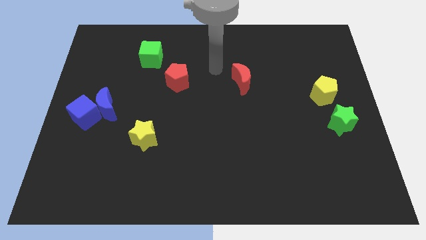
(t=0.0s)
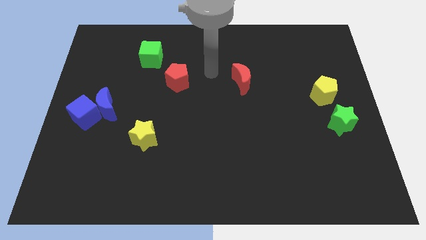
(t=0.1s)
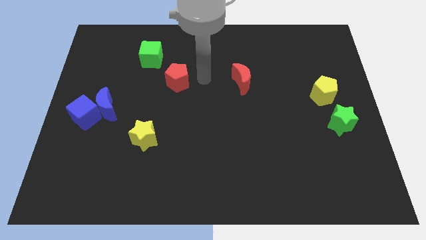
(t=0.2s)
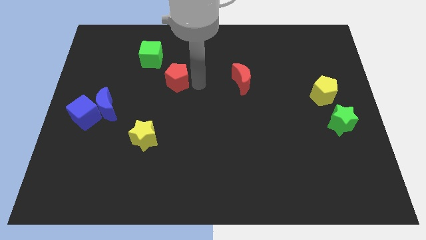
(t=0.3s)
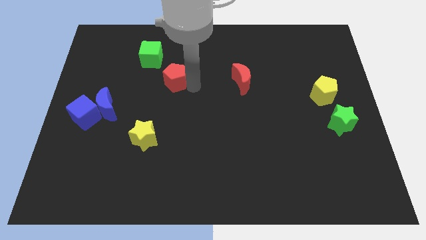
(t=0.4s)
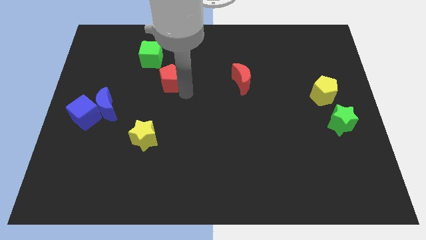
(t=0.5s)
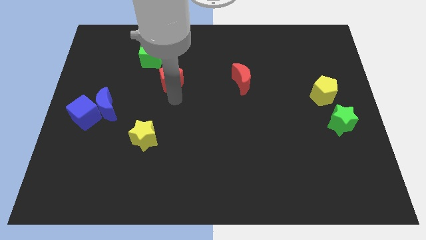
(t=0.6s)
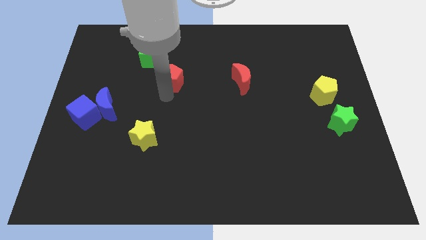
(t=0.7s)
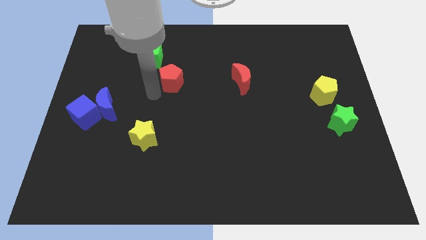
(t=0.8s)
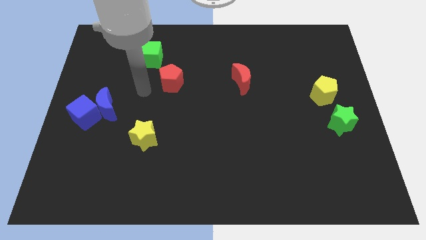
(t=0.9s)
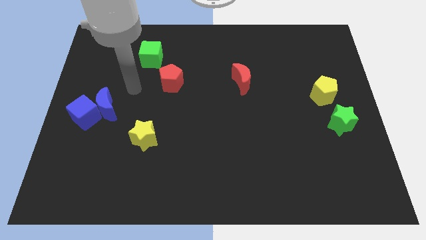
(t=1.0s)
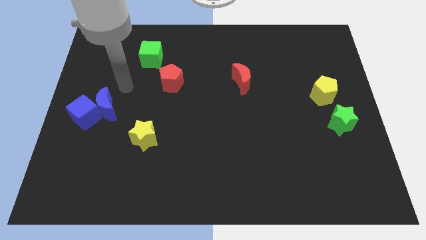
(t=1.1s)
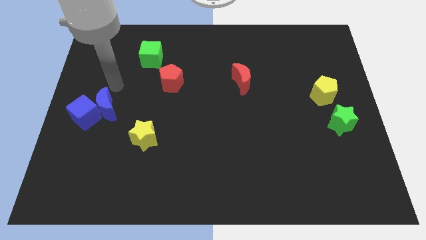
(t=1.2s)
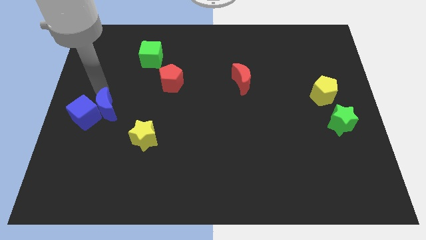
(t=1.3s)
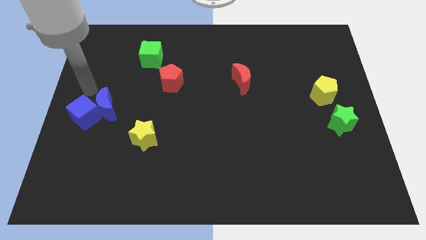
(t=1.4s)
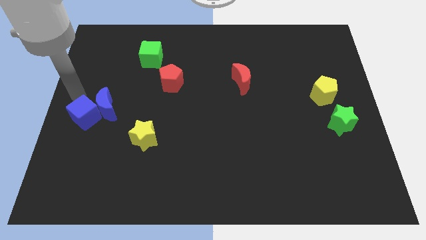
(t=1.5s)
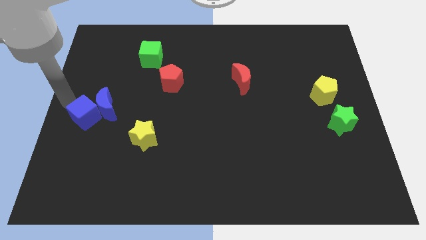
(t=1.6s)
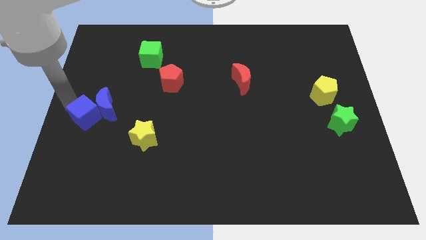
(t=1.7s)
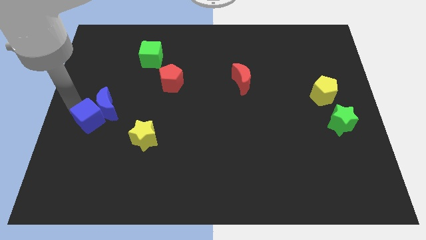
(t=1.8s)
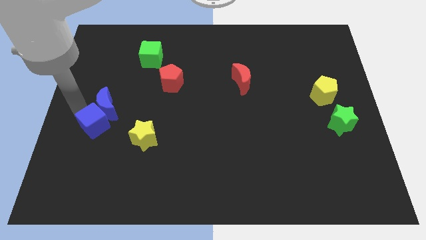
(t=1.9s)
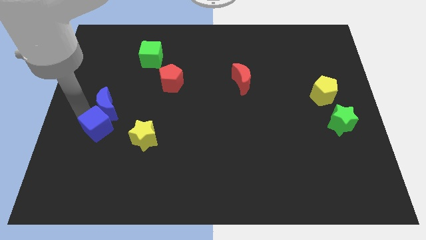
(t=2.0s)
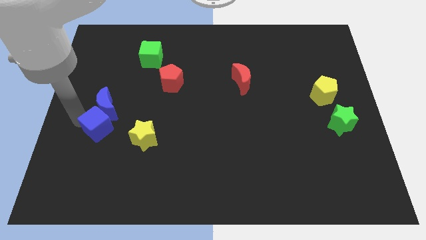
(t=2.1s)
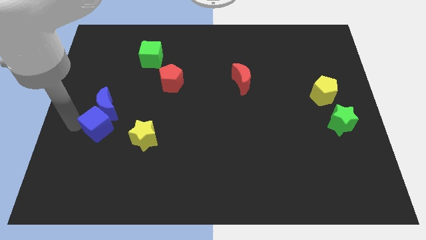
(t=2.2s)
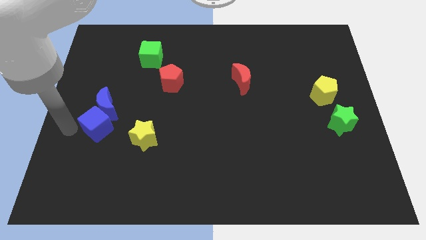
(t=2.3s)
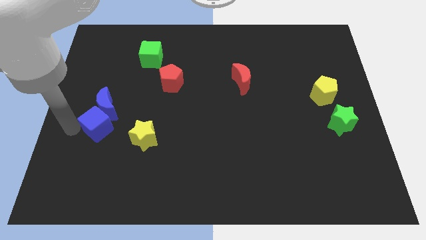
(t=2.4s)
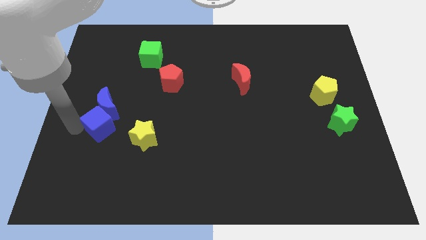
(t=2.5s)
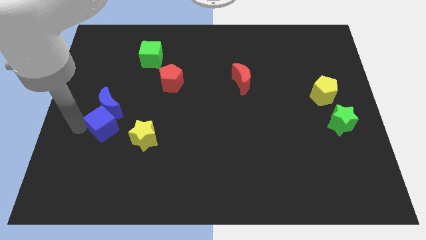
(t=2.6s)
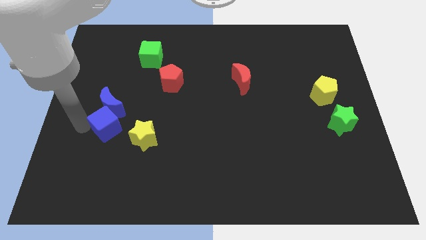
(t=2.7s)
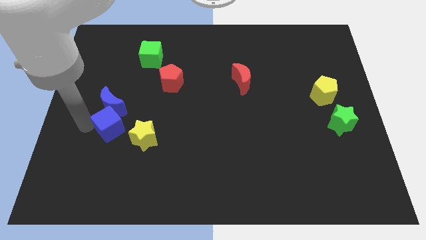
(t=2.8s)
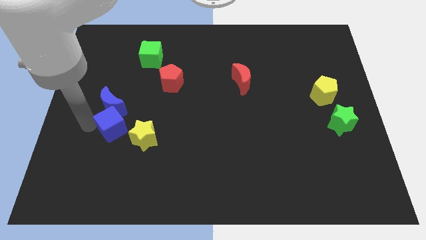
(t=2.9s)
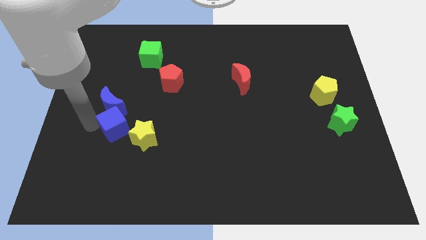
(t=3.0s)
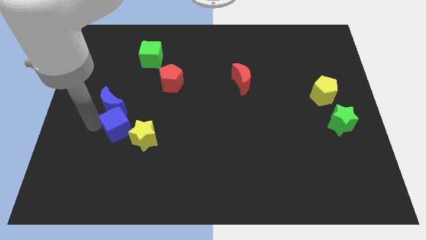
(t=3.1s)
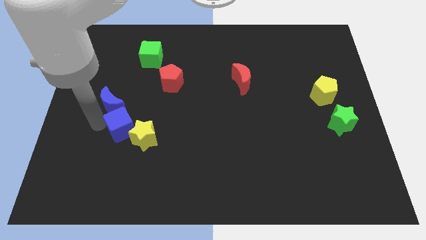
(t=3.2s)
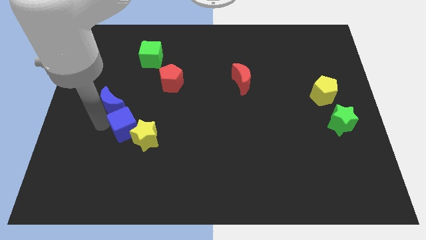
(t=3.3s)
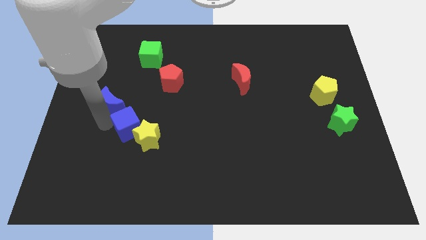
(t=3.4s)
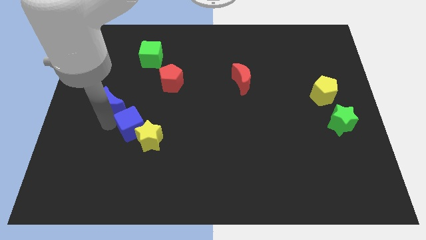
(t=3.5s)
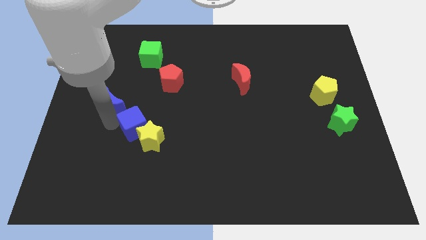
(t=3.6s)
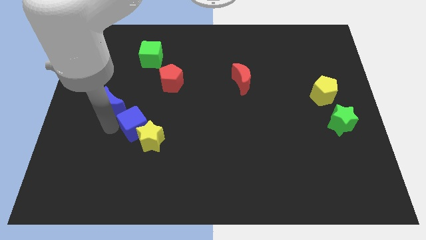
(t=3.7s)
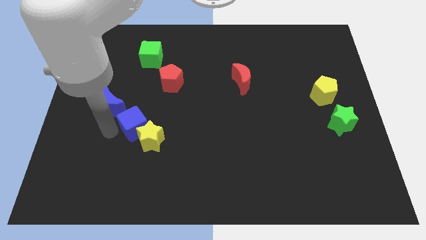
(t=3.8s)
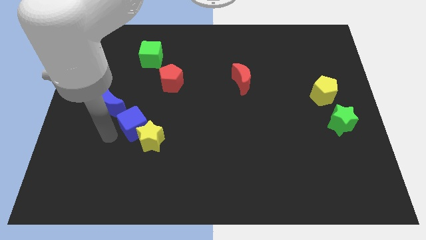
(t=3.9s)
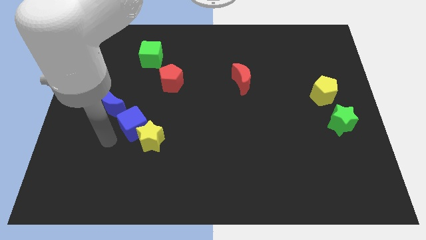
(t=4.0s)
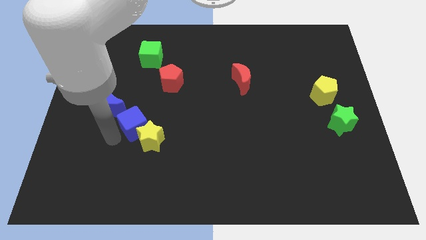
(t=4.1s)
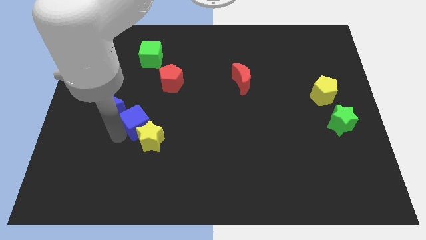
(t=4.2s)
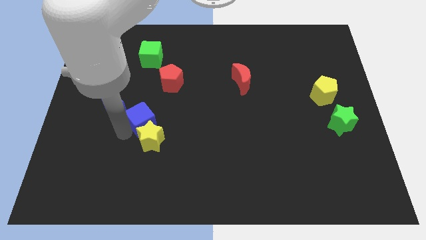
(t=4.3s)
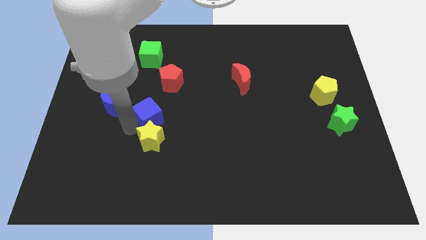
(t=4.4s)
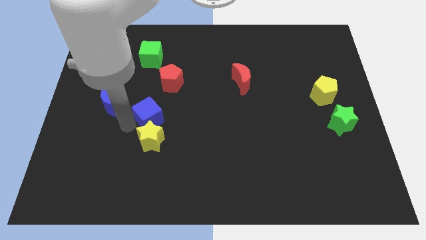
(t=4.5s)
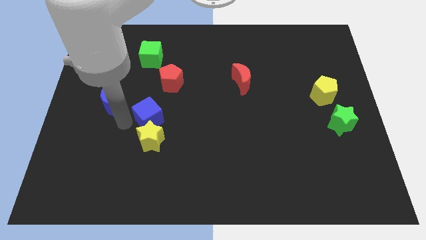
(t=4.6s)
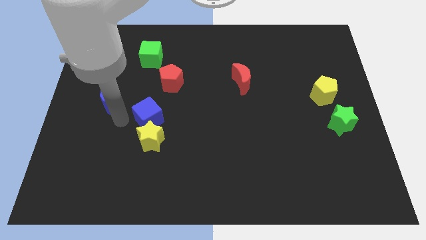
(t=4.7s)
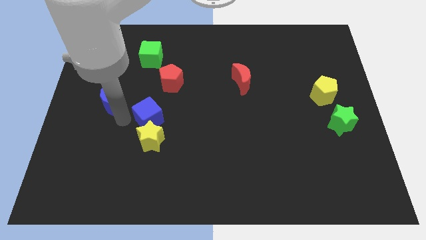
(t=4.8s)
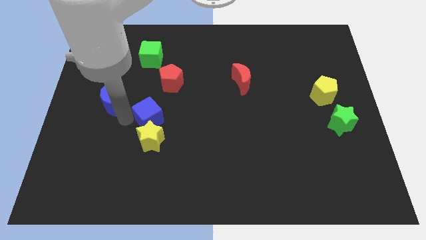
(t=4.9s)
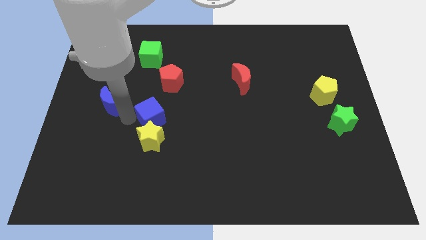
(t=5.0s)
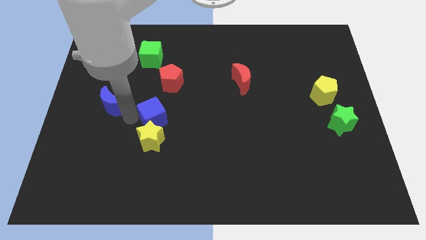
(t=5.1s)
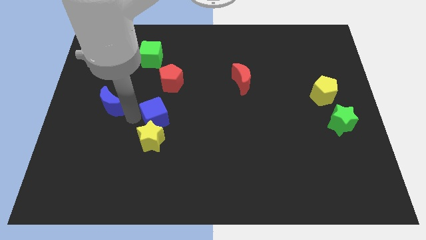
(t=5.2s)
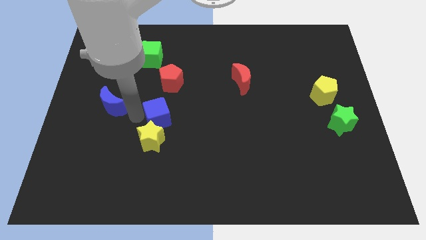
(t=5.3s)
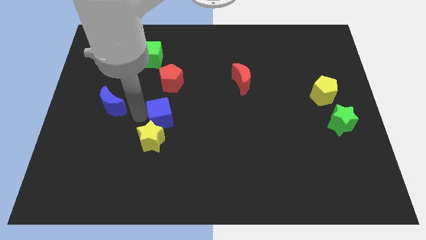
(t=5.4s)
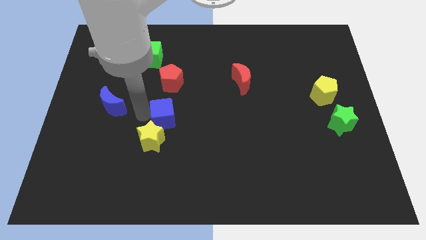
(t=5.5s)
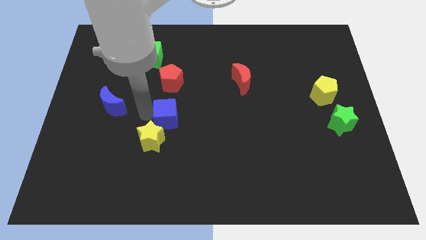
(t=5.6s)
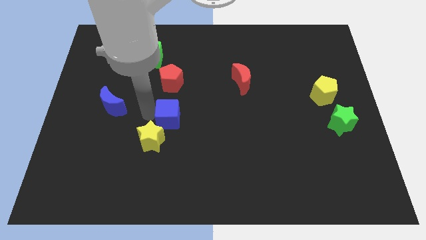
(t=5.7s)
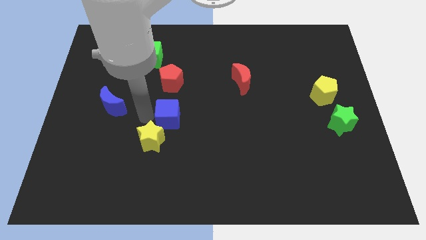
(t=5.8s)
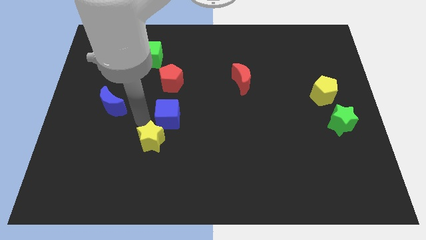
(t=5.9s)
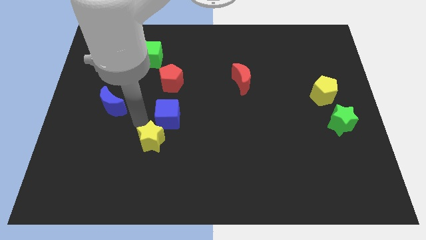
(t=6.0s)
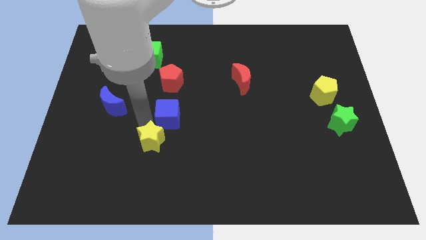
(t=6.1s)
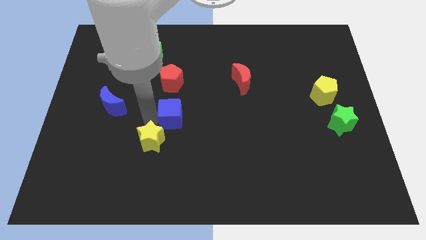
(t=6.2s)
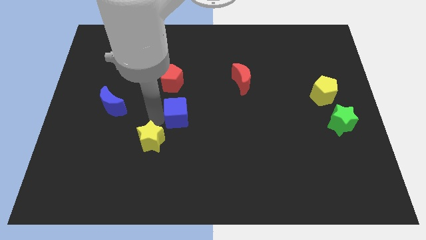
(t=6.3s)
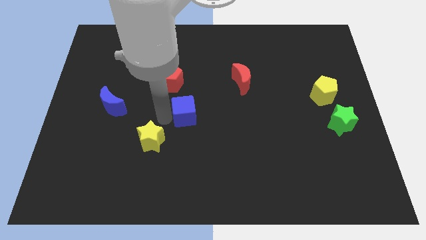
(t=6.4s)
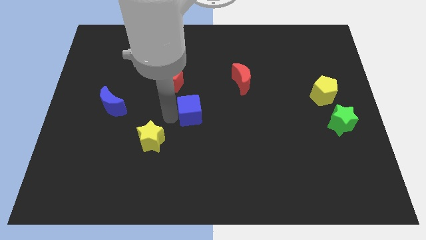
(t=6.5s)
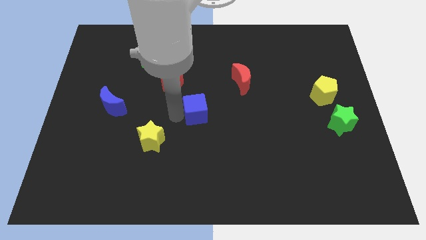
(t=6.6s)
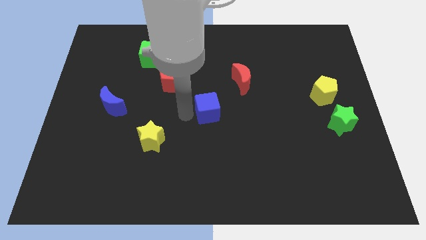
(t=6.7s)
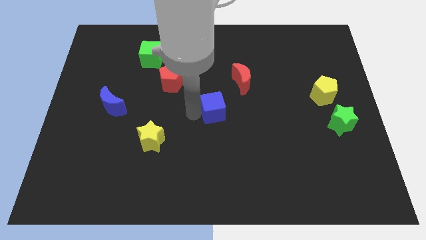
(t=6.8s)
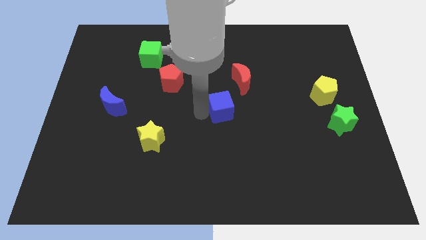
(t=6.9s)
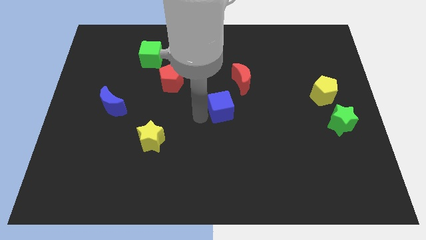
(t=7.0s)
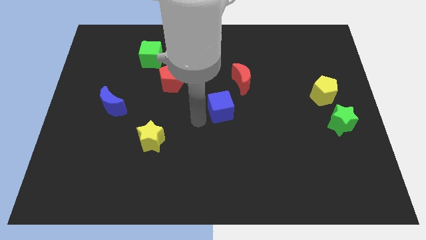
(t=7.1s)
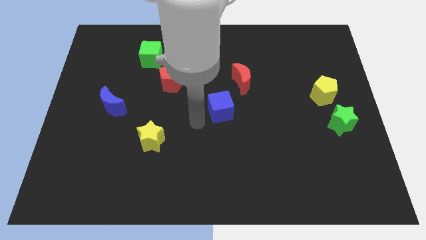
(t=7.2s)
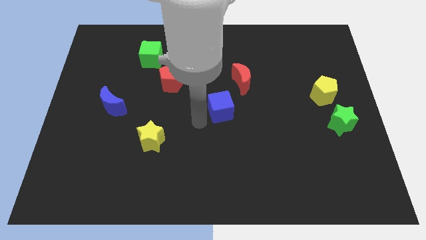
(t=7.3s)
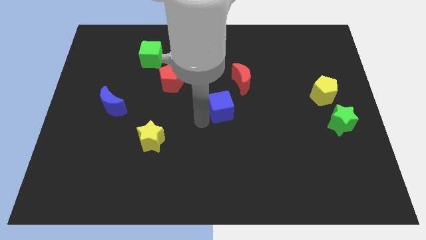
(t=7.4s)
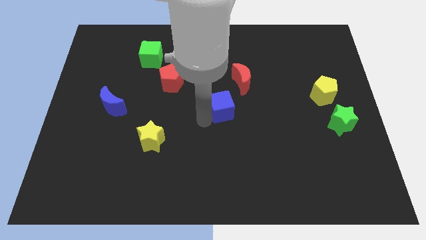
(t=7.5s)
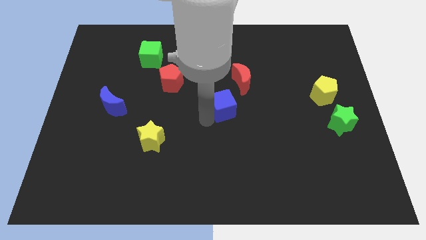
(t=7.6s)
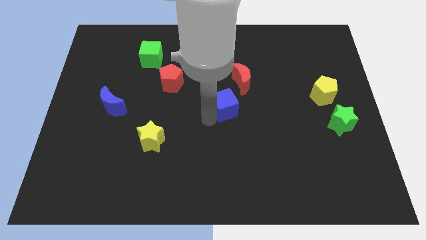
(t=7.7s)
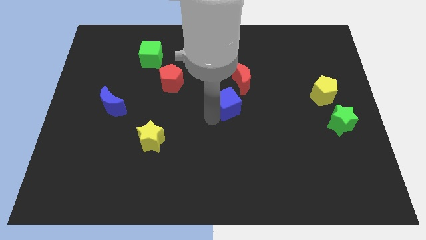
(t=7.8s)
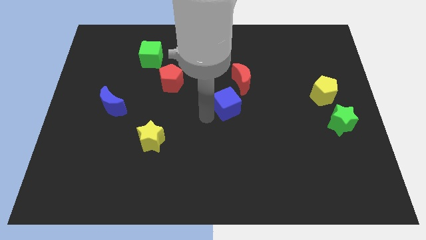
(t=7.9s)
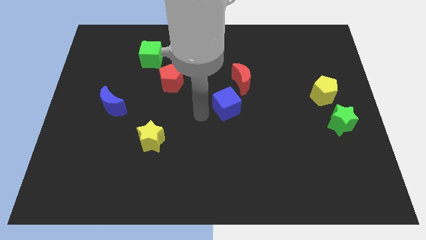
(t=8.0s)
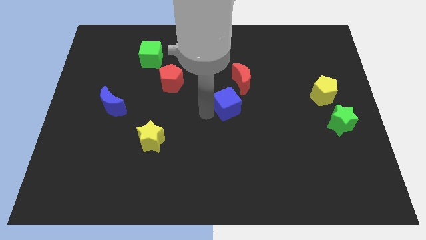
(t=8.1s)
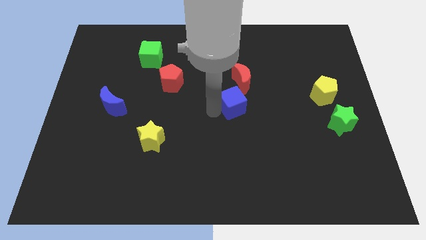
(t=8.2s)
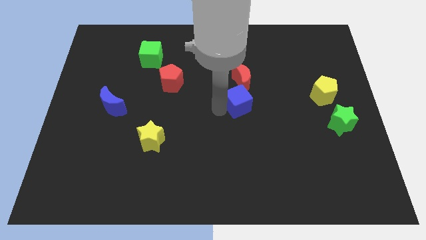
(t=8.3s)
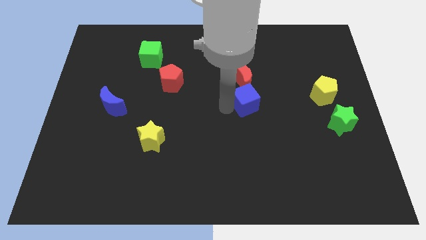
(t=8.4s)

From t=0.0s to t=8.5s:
move the blue cube to the bottom right side of the red moon
